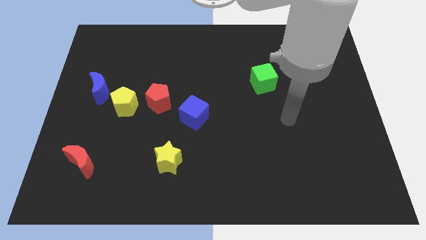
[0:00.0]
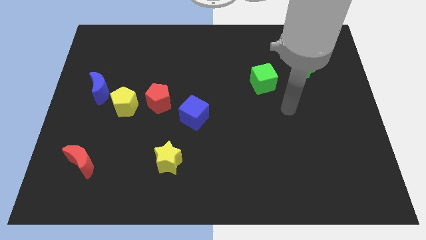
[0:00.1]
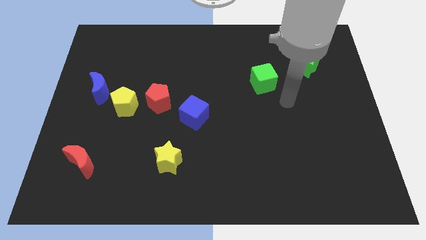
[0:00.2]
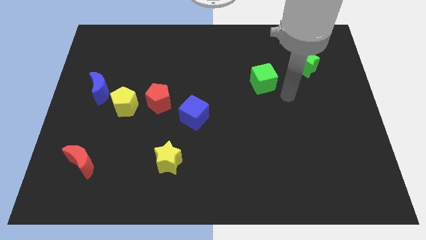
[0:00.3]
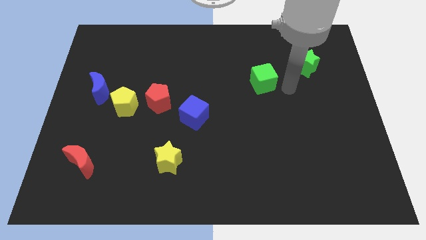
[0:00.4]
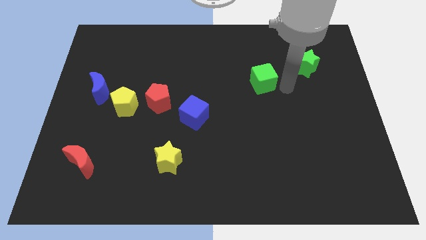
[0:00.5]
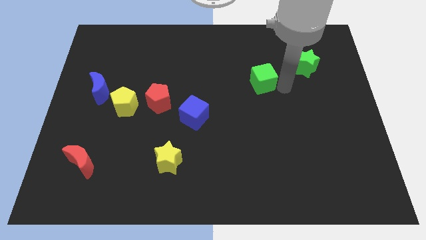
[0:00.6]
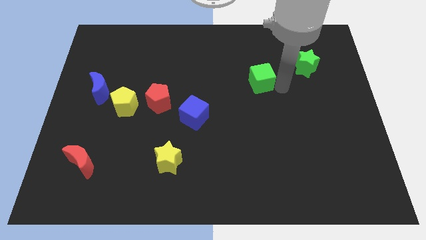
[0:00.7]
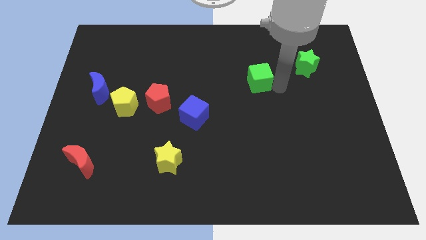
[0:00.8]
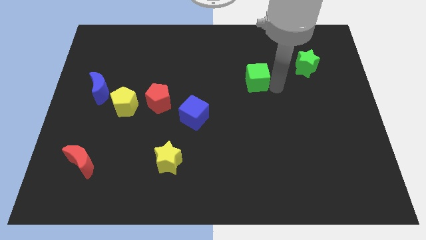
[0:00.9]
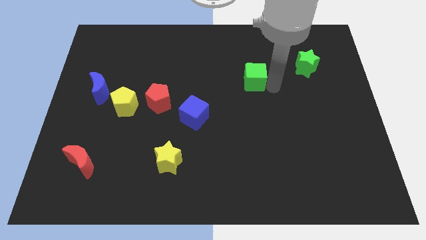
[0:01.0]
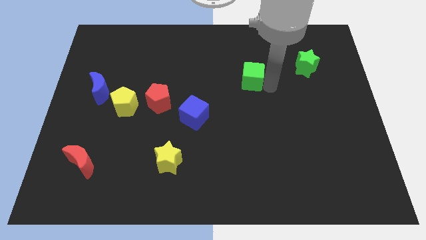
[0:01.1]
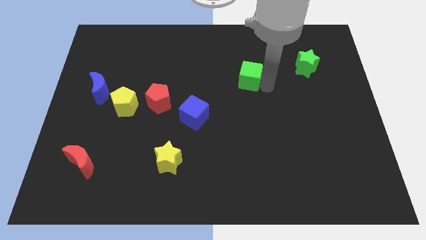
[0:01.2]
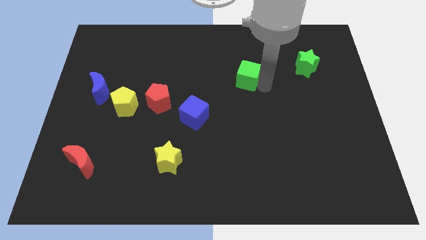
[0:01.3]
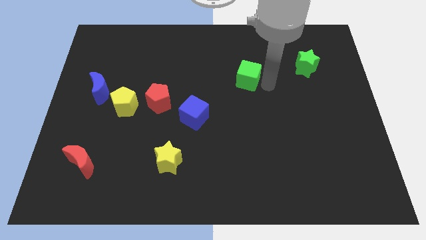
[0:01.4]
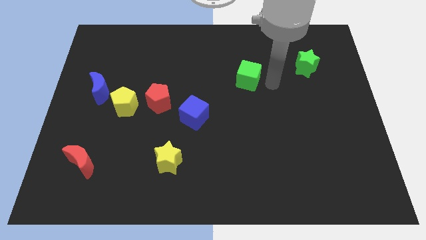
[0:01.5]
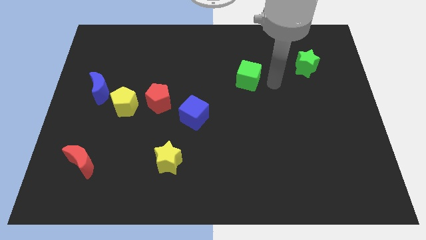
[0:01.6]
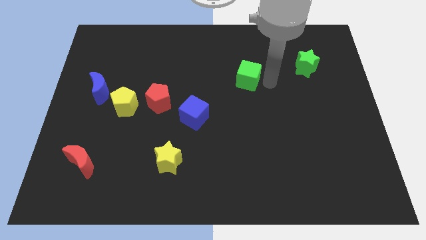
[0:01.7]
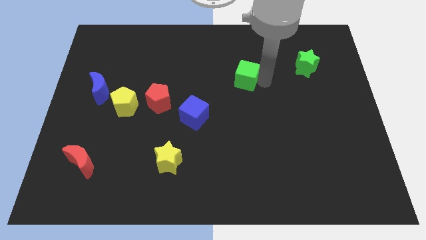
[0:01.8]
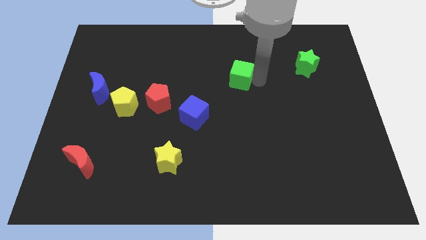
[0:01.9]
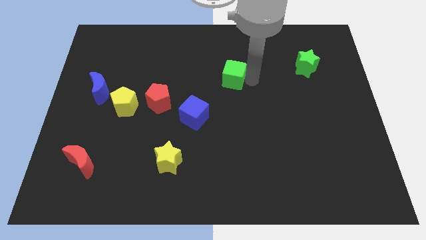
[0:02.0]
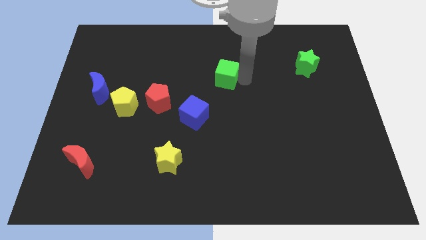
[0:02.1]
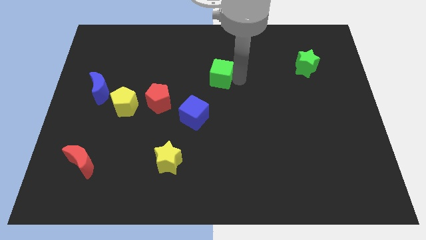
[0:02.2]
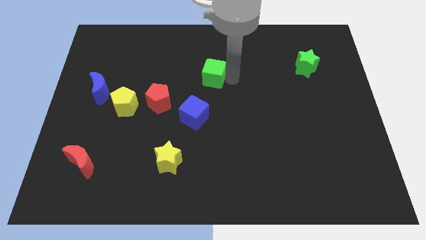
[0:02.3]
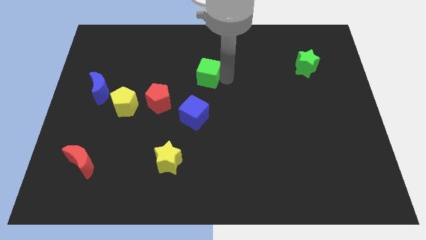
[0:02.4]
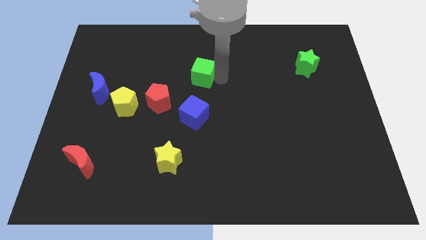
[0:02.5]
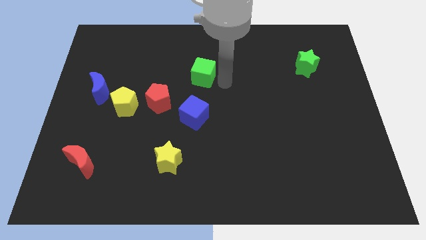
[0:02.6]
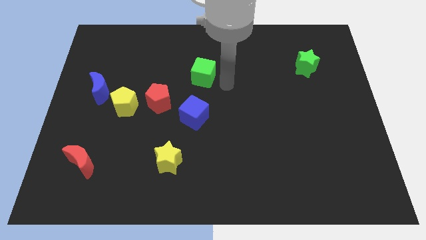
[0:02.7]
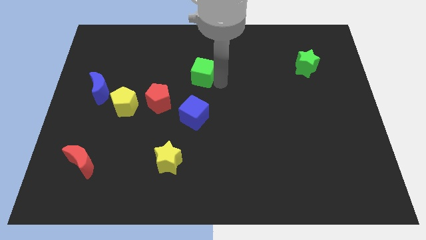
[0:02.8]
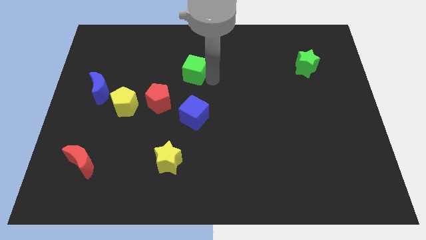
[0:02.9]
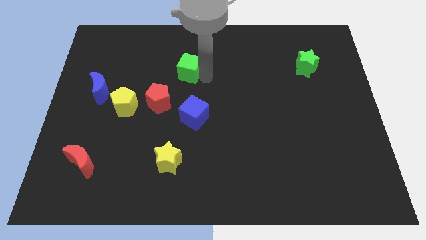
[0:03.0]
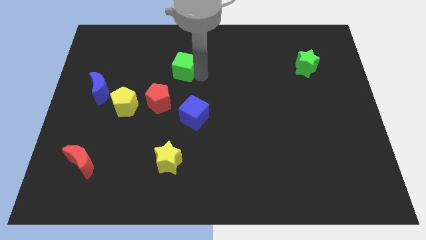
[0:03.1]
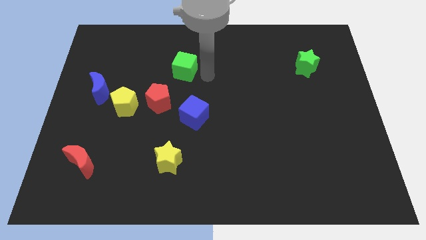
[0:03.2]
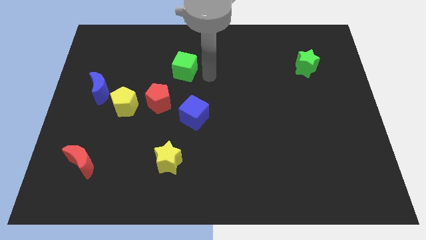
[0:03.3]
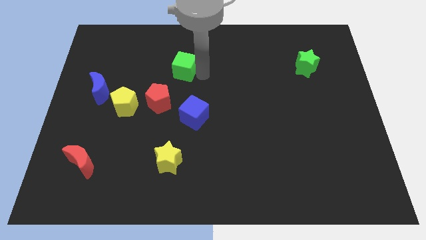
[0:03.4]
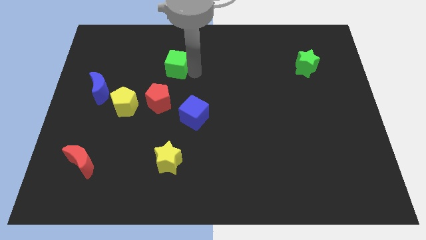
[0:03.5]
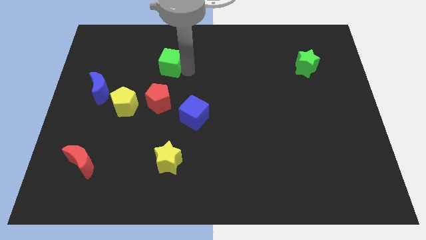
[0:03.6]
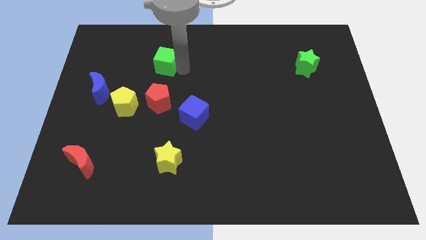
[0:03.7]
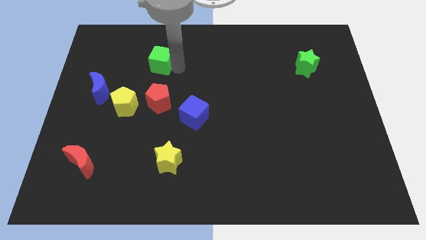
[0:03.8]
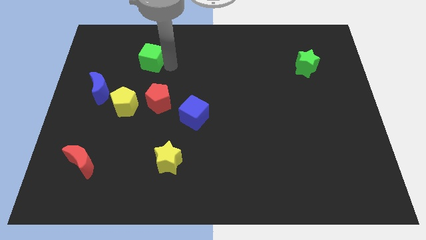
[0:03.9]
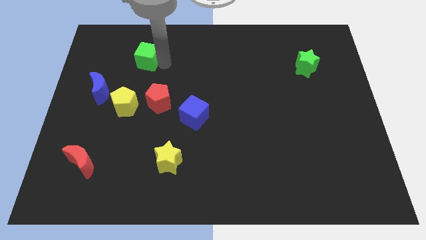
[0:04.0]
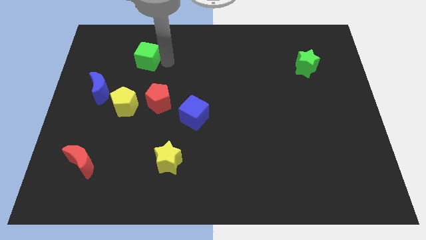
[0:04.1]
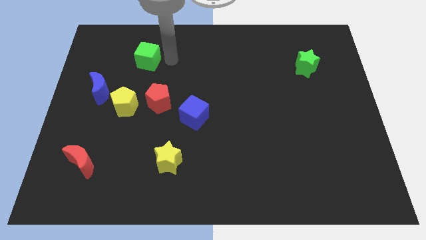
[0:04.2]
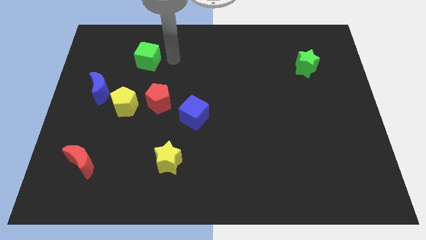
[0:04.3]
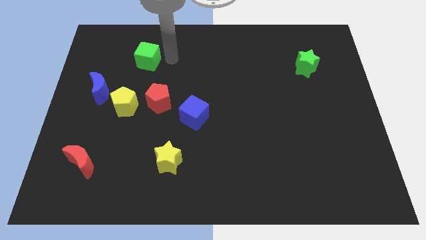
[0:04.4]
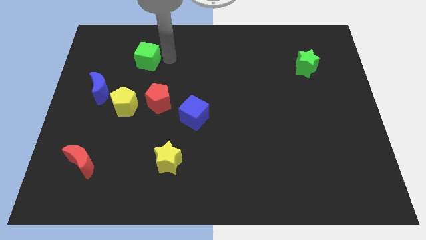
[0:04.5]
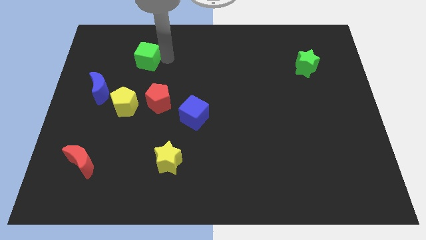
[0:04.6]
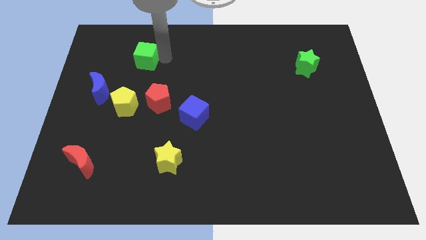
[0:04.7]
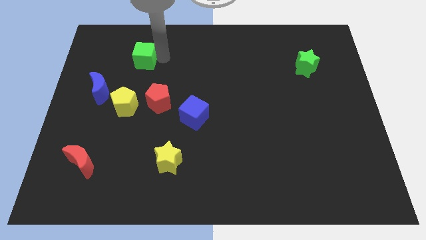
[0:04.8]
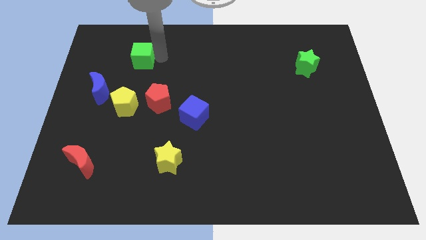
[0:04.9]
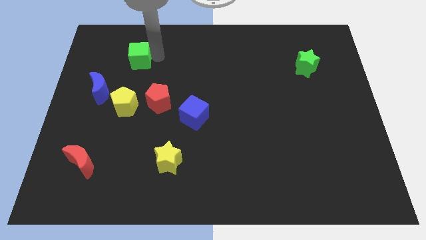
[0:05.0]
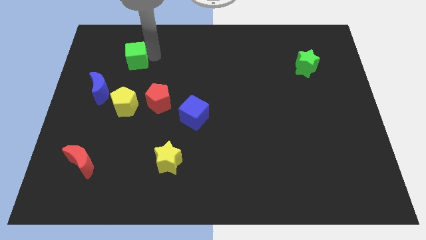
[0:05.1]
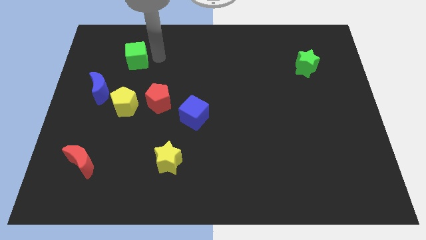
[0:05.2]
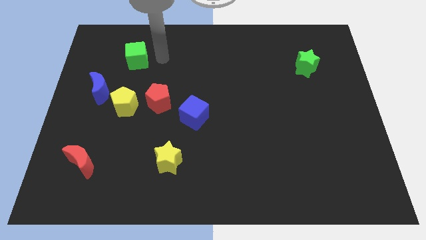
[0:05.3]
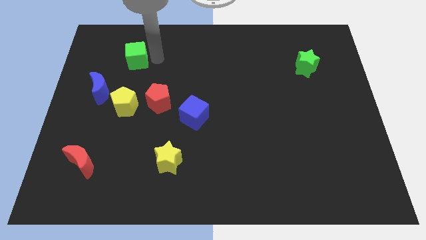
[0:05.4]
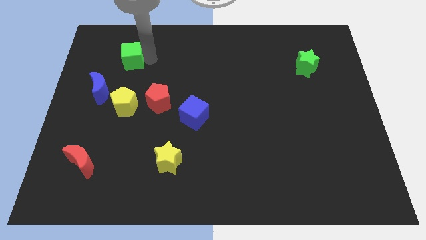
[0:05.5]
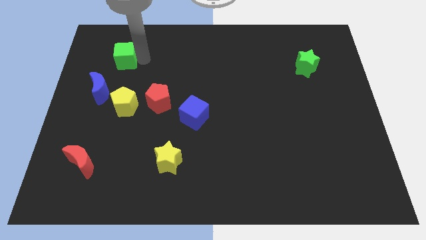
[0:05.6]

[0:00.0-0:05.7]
push the green cube above the blue moon

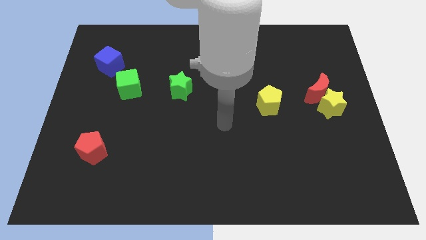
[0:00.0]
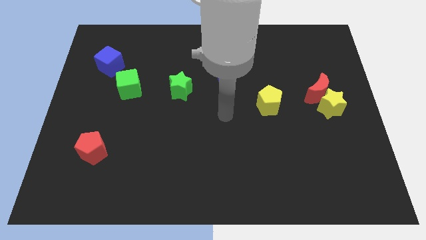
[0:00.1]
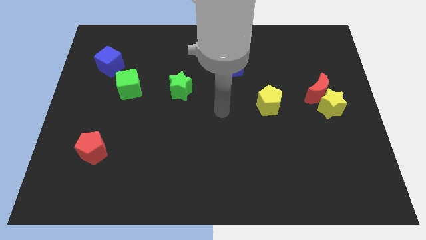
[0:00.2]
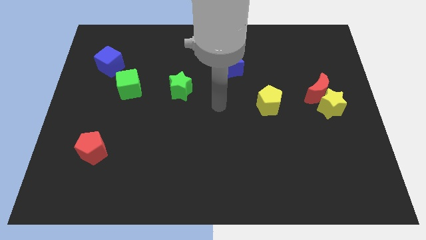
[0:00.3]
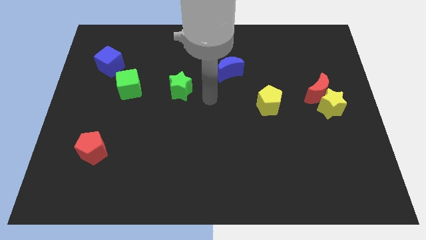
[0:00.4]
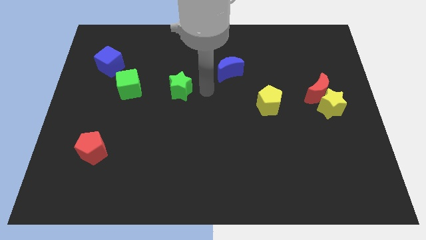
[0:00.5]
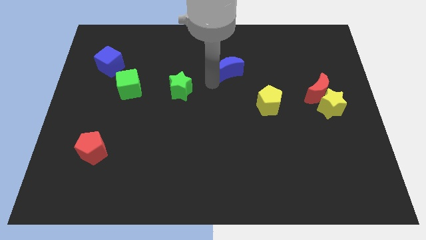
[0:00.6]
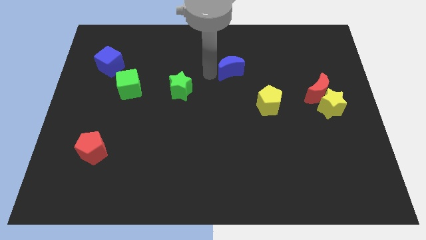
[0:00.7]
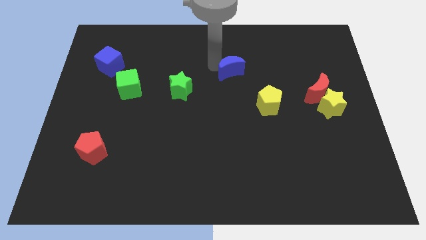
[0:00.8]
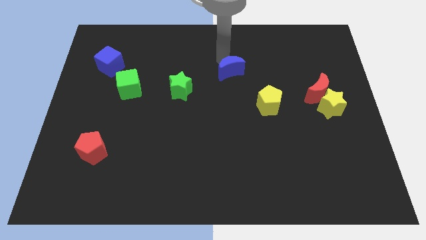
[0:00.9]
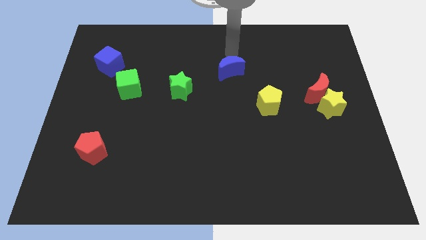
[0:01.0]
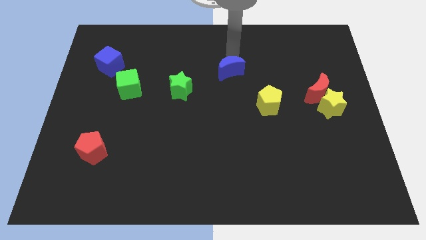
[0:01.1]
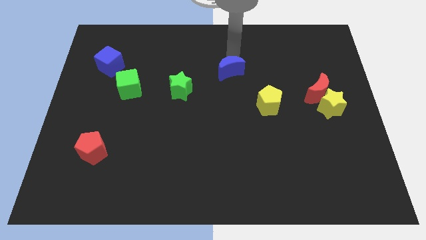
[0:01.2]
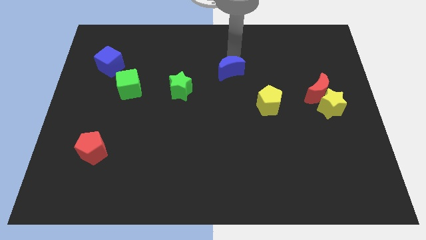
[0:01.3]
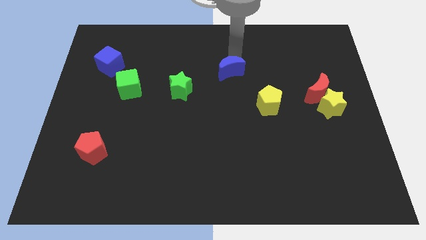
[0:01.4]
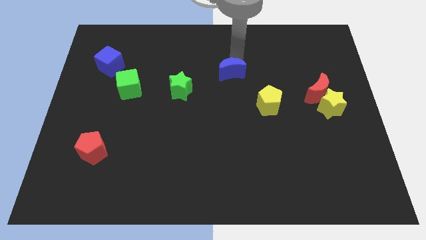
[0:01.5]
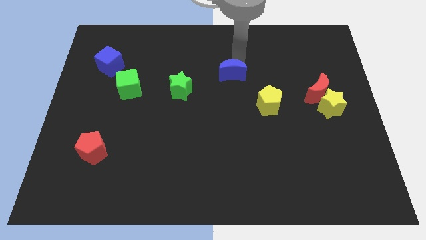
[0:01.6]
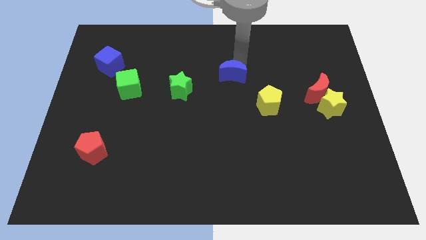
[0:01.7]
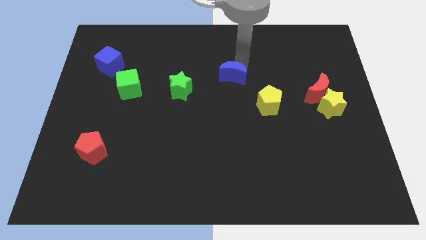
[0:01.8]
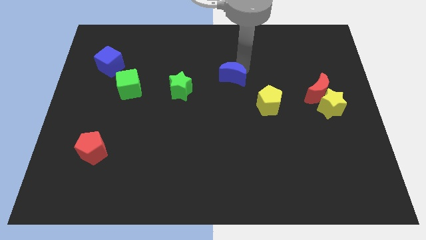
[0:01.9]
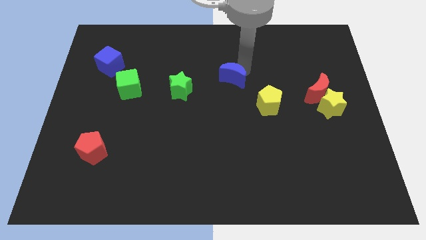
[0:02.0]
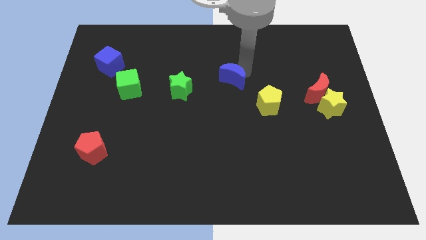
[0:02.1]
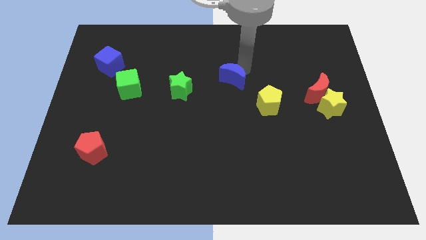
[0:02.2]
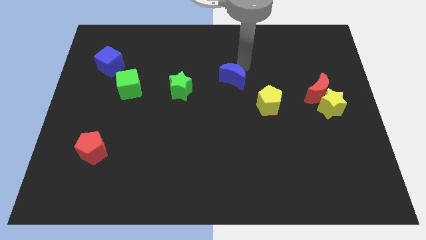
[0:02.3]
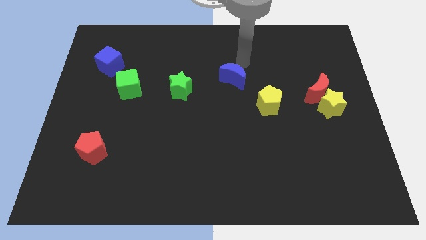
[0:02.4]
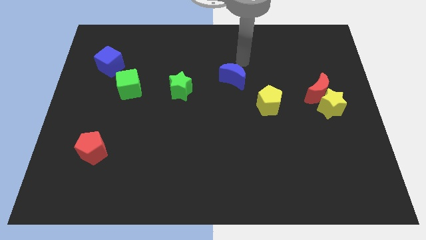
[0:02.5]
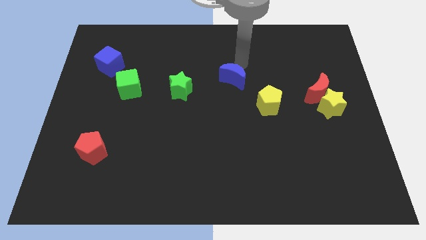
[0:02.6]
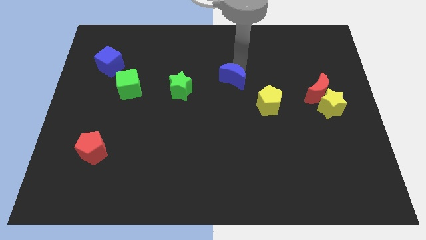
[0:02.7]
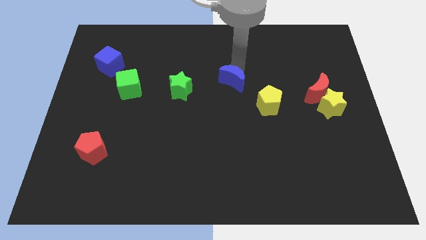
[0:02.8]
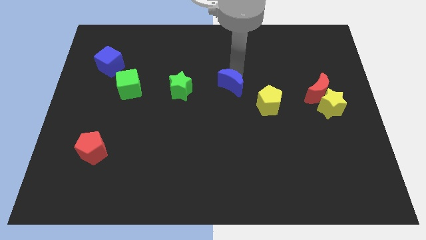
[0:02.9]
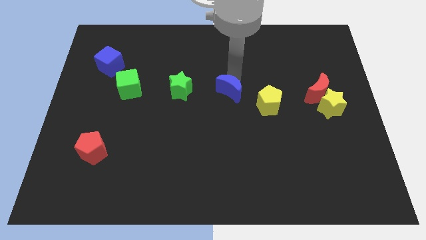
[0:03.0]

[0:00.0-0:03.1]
push the blue moon to the left side of the yellow pentagon
